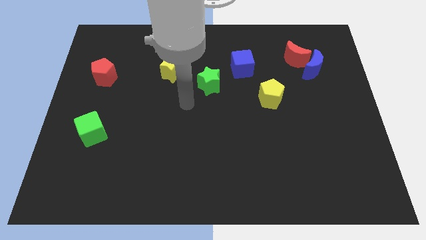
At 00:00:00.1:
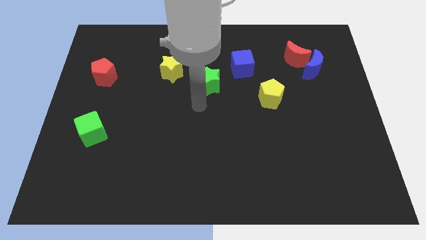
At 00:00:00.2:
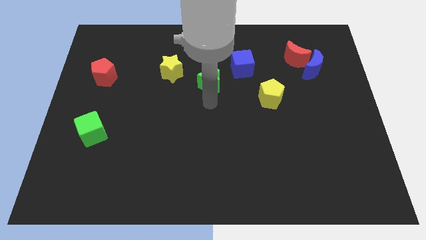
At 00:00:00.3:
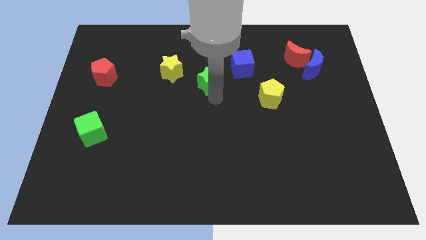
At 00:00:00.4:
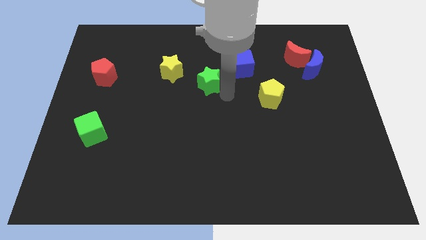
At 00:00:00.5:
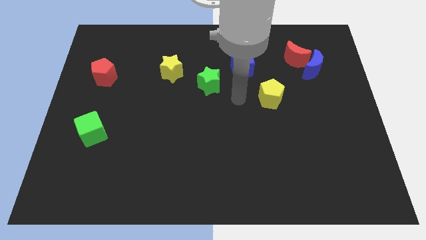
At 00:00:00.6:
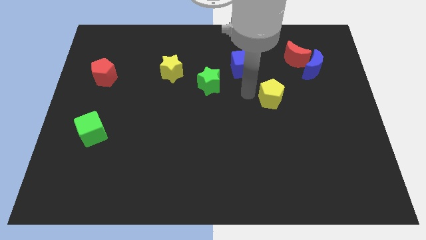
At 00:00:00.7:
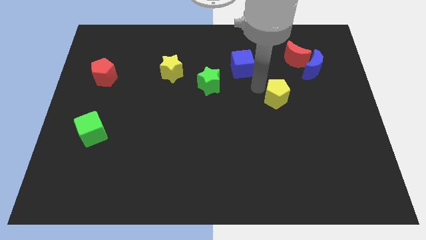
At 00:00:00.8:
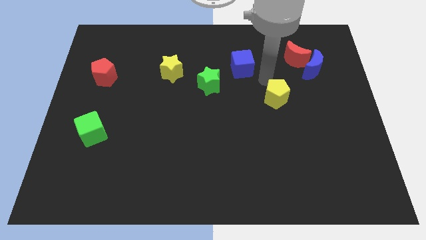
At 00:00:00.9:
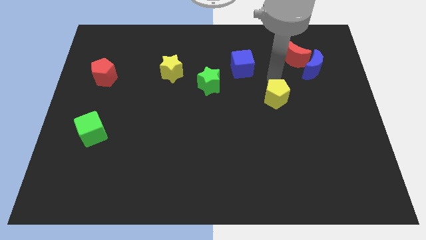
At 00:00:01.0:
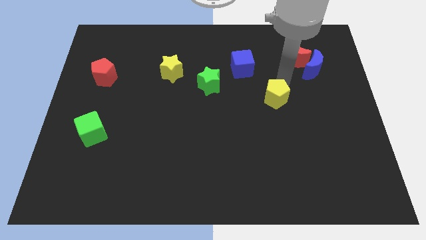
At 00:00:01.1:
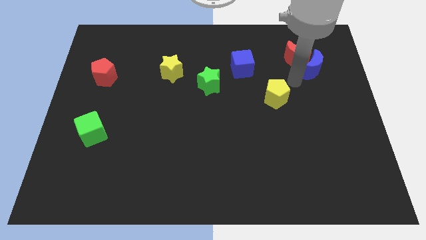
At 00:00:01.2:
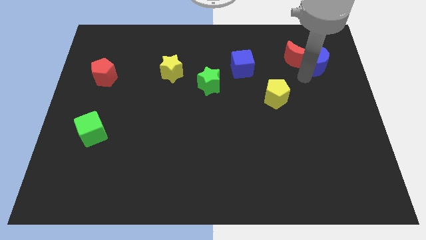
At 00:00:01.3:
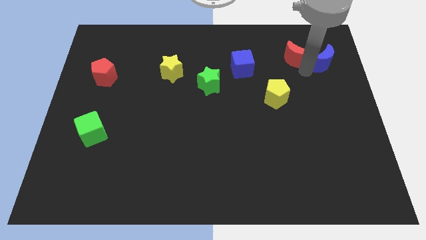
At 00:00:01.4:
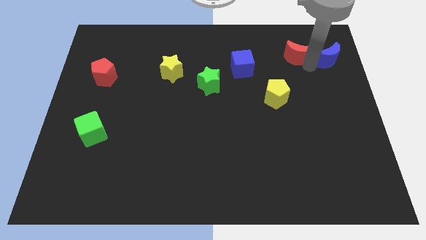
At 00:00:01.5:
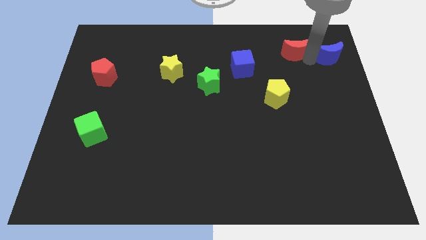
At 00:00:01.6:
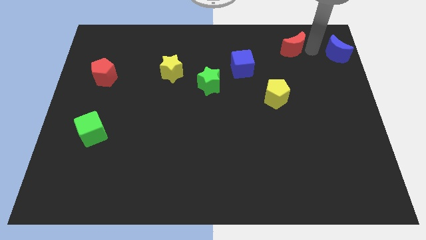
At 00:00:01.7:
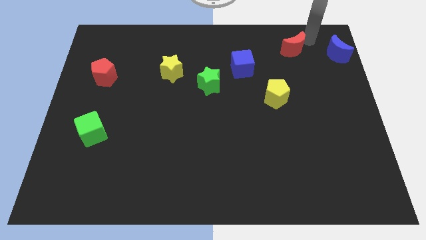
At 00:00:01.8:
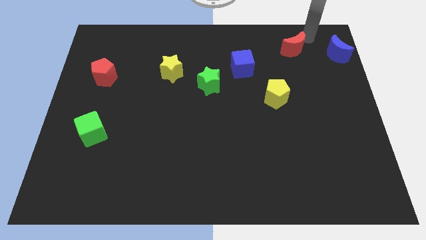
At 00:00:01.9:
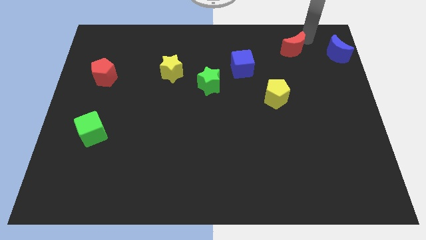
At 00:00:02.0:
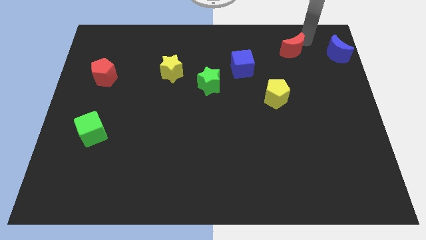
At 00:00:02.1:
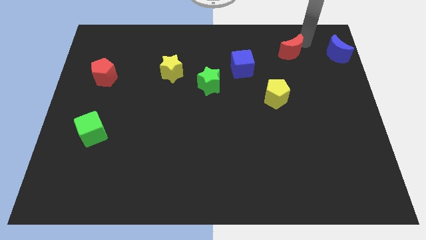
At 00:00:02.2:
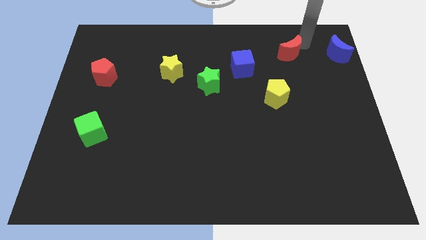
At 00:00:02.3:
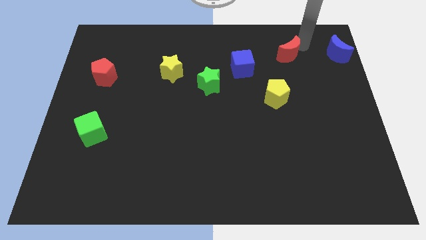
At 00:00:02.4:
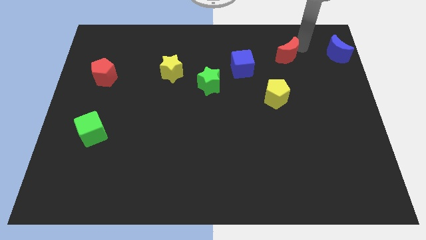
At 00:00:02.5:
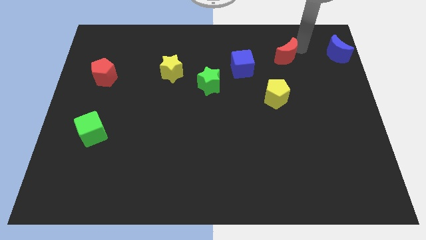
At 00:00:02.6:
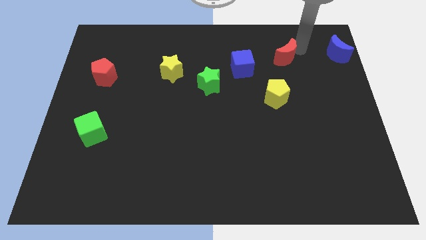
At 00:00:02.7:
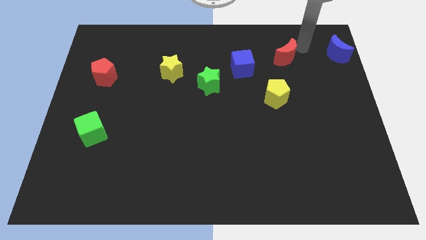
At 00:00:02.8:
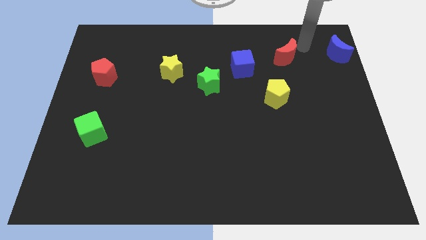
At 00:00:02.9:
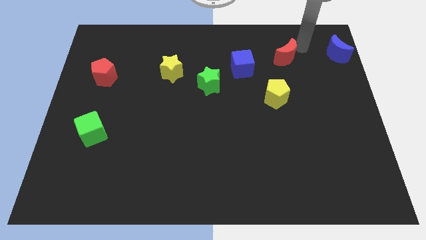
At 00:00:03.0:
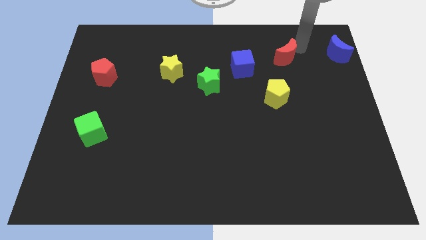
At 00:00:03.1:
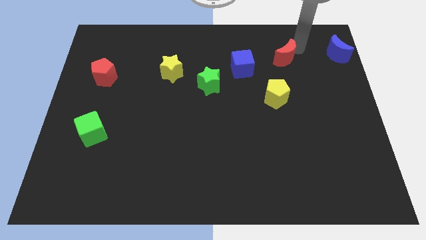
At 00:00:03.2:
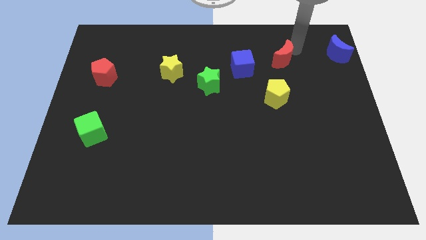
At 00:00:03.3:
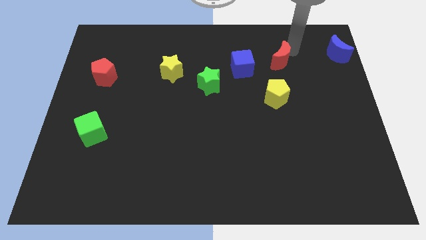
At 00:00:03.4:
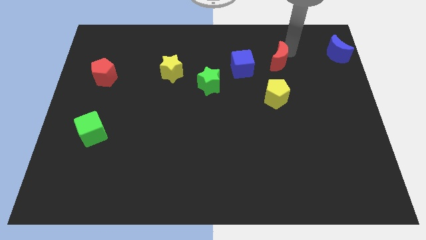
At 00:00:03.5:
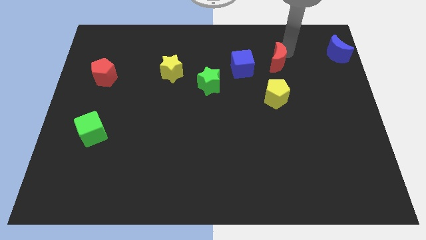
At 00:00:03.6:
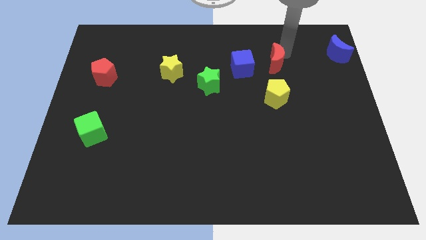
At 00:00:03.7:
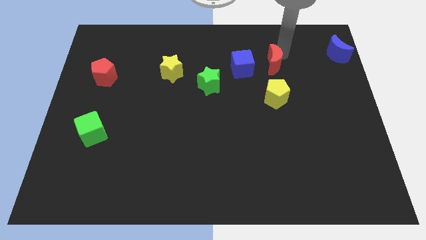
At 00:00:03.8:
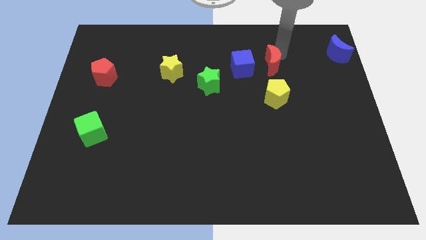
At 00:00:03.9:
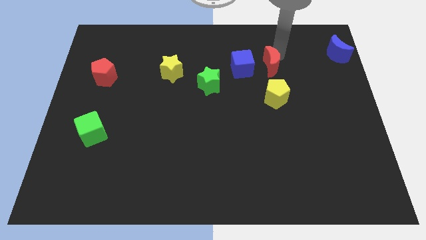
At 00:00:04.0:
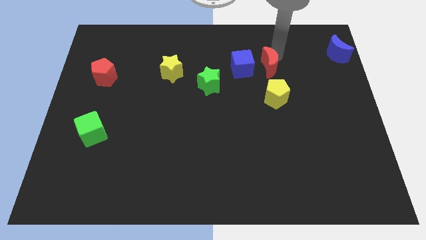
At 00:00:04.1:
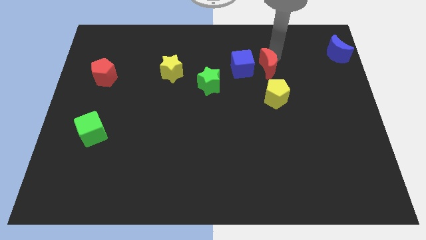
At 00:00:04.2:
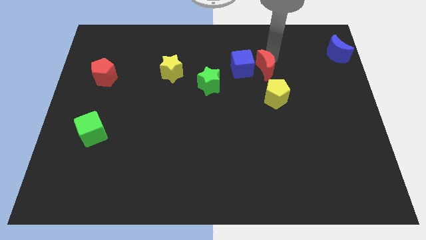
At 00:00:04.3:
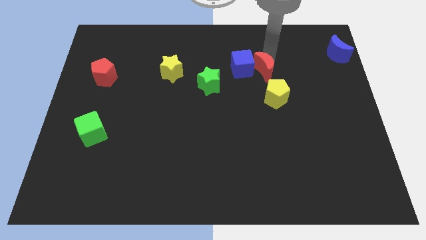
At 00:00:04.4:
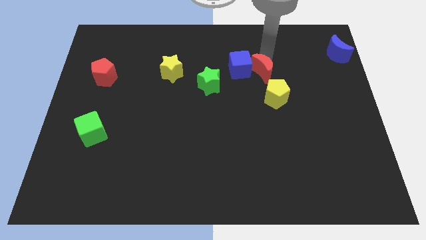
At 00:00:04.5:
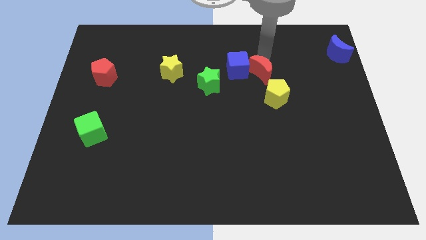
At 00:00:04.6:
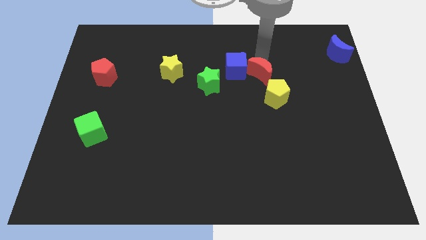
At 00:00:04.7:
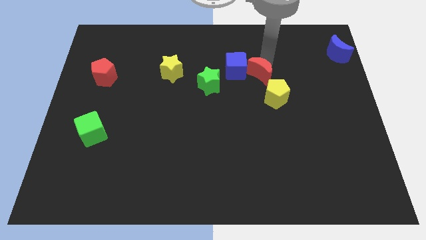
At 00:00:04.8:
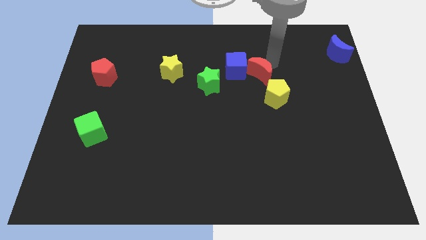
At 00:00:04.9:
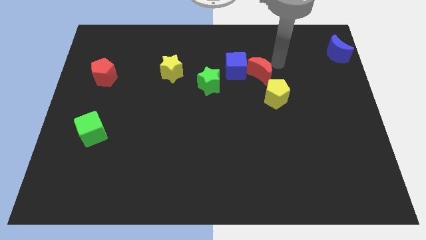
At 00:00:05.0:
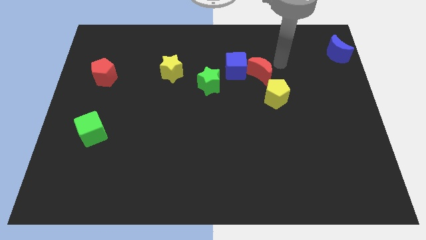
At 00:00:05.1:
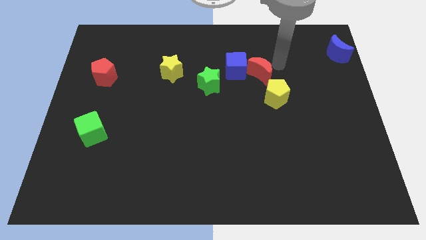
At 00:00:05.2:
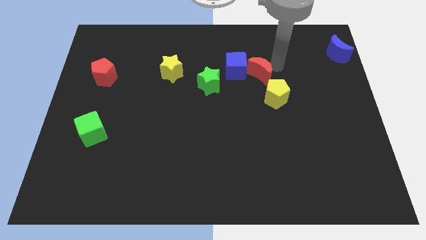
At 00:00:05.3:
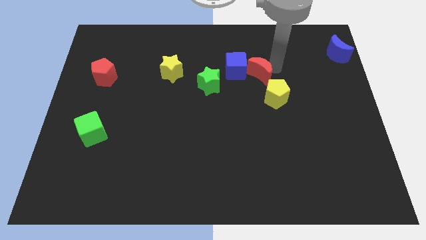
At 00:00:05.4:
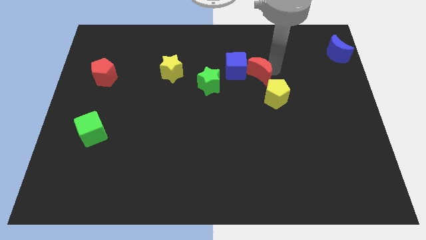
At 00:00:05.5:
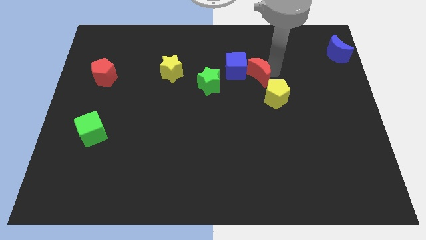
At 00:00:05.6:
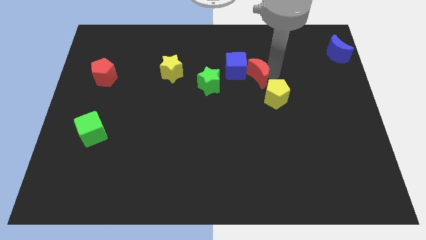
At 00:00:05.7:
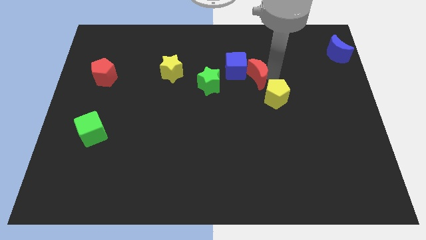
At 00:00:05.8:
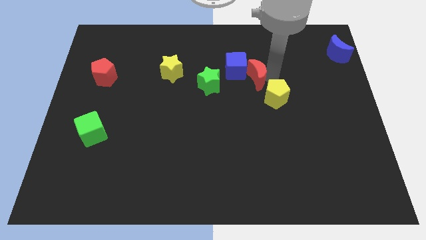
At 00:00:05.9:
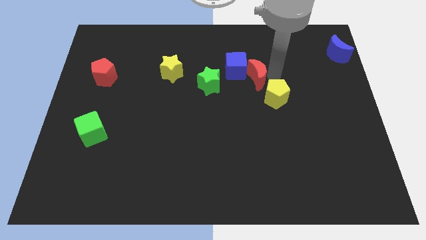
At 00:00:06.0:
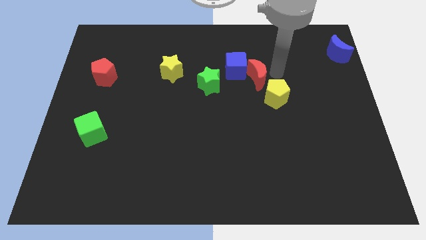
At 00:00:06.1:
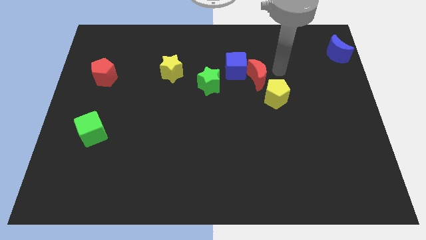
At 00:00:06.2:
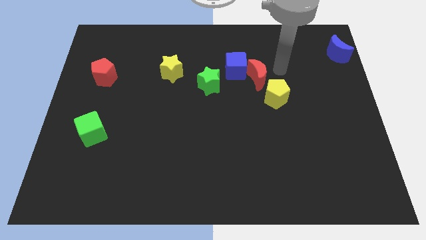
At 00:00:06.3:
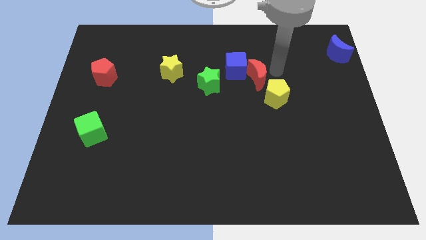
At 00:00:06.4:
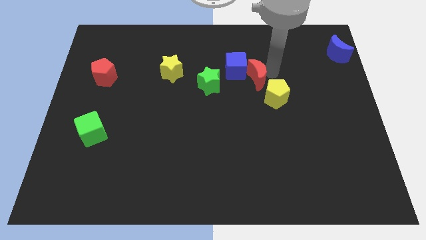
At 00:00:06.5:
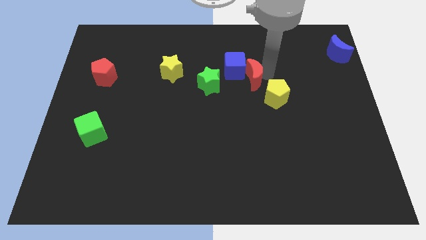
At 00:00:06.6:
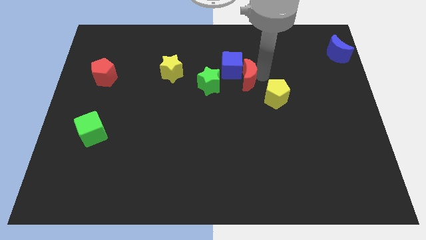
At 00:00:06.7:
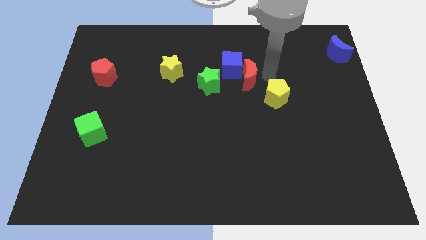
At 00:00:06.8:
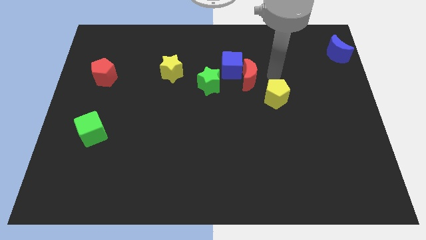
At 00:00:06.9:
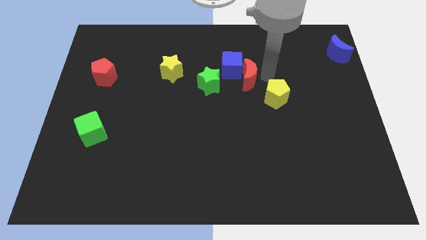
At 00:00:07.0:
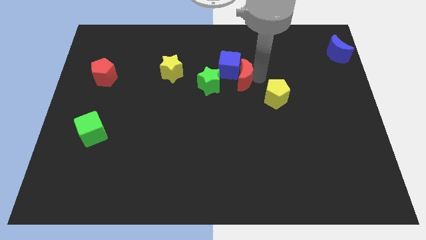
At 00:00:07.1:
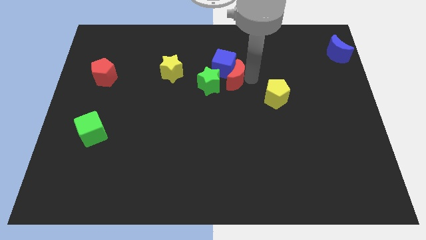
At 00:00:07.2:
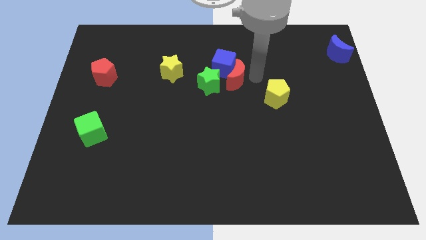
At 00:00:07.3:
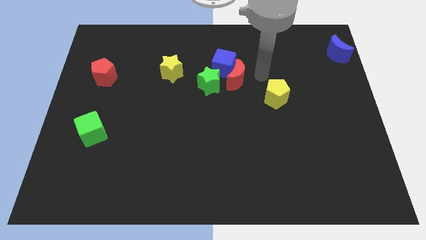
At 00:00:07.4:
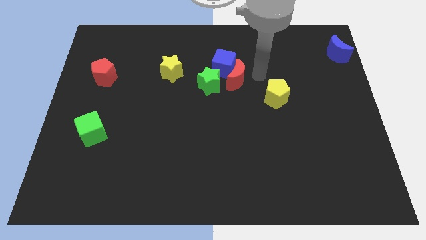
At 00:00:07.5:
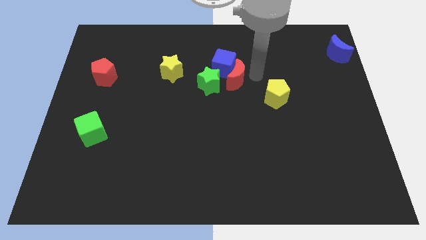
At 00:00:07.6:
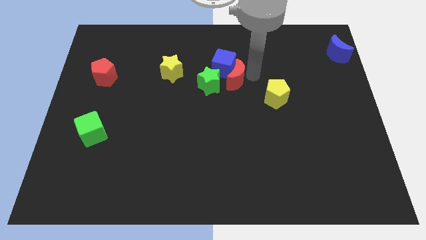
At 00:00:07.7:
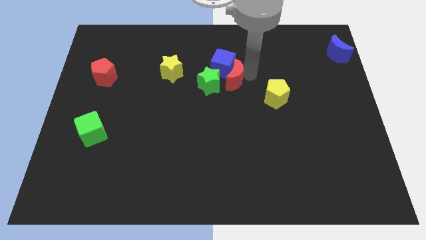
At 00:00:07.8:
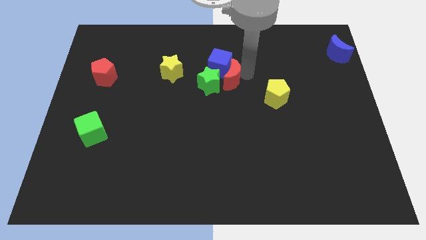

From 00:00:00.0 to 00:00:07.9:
move the red moon close to the green star

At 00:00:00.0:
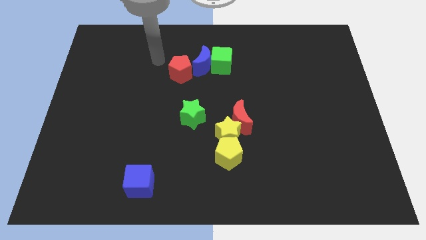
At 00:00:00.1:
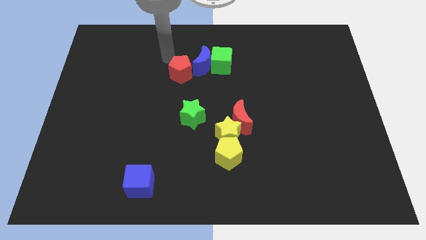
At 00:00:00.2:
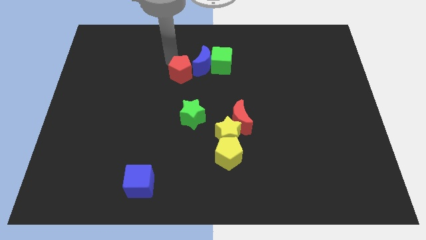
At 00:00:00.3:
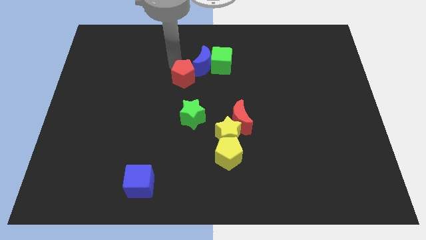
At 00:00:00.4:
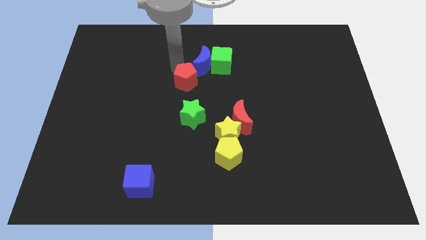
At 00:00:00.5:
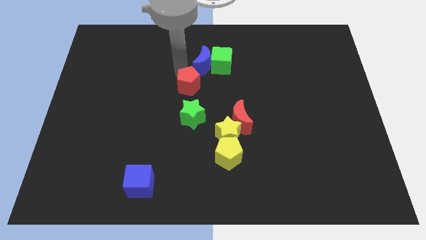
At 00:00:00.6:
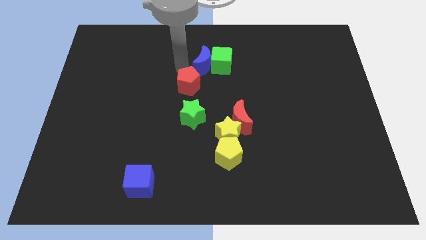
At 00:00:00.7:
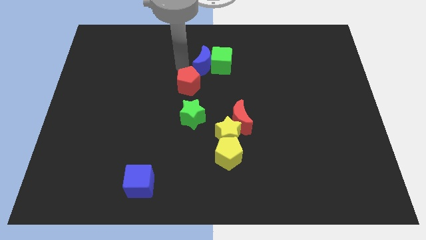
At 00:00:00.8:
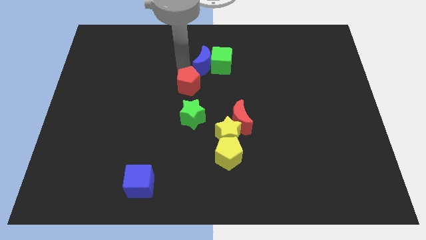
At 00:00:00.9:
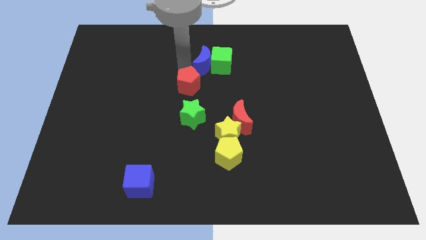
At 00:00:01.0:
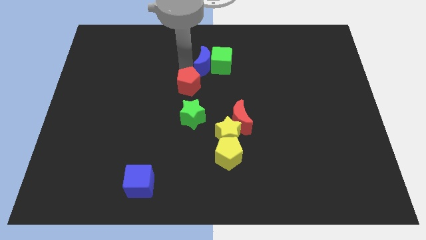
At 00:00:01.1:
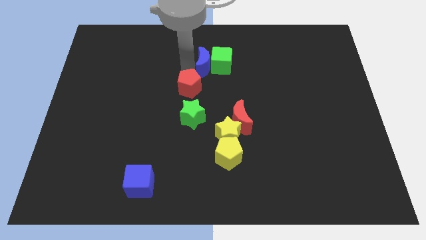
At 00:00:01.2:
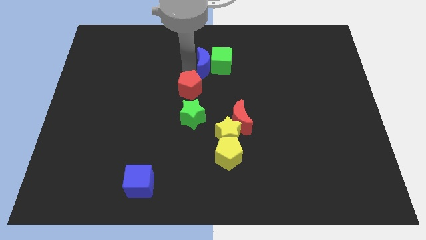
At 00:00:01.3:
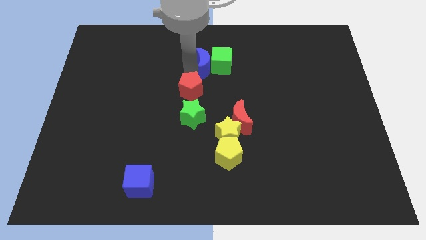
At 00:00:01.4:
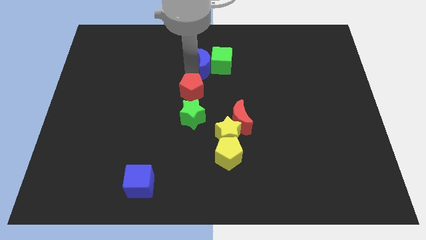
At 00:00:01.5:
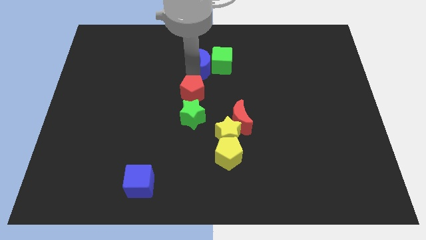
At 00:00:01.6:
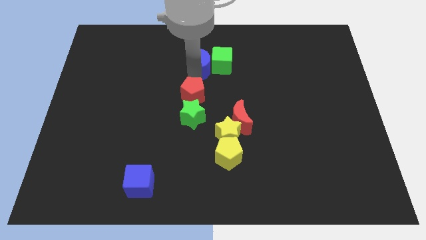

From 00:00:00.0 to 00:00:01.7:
slide the red pentagon next to the green star
